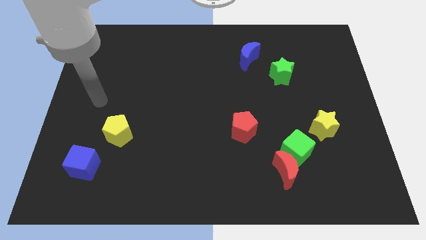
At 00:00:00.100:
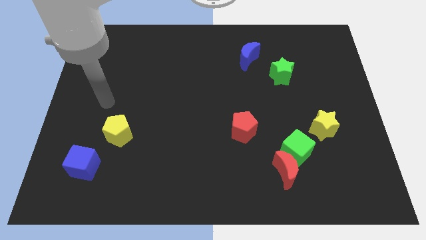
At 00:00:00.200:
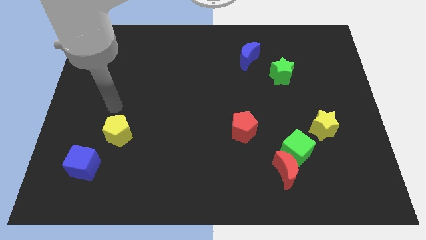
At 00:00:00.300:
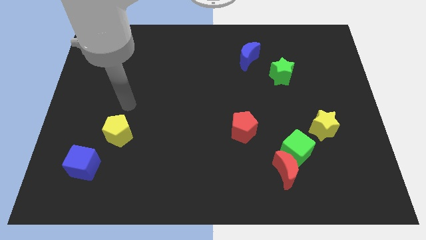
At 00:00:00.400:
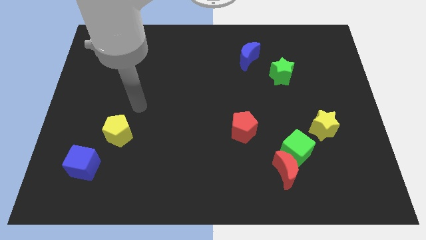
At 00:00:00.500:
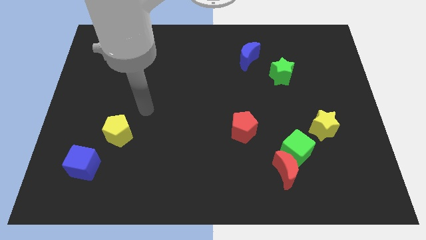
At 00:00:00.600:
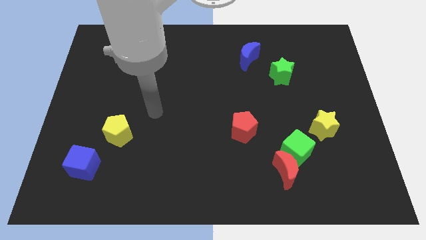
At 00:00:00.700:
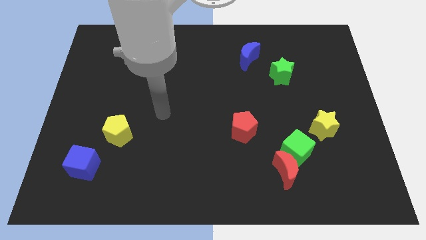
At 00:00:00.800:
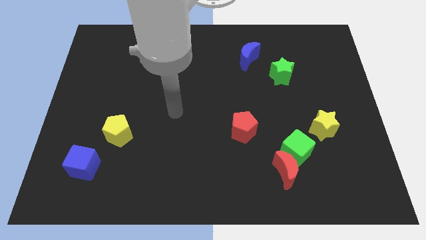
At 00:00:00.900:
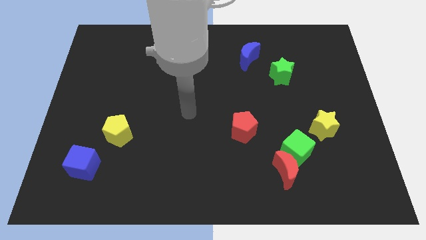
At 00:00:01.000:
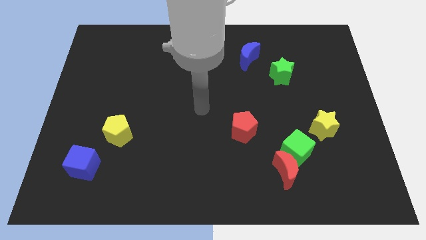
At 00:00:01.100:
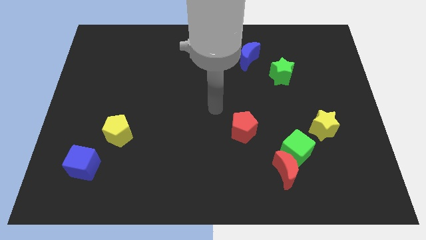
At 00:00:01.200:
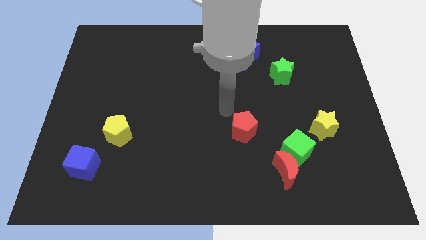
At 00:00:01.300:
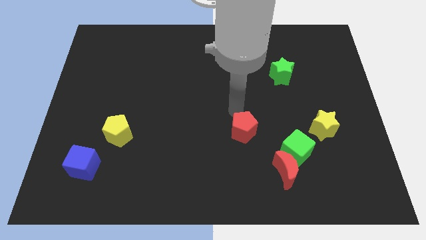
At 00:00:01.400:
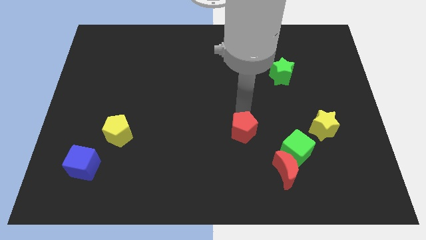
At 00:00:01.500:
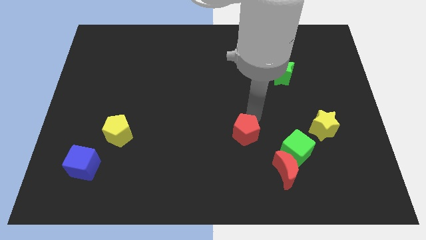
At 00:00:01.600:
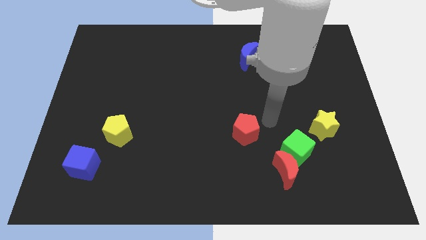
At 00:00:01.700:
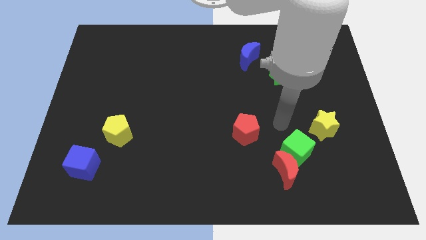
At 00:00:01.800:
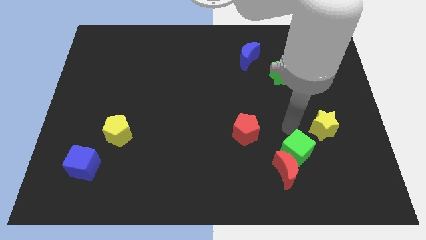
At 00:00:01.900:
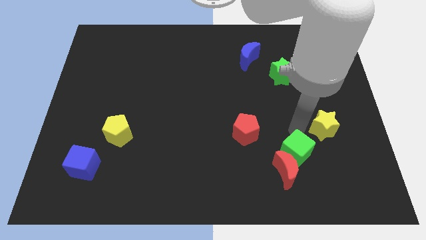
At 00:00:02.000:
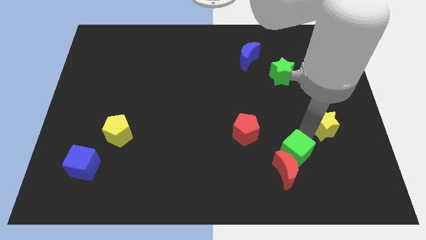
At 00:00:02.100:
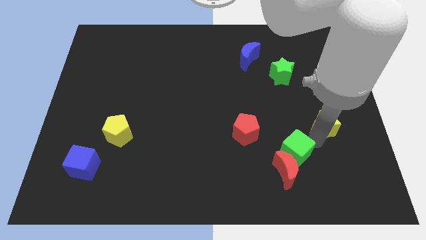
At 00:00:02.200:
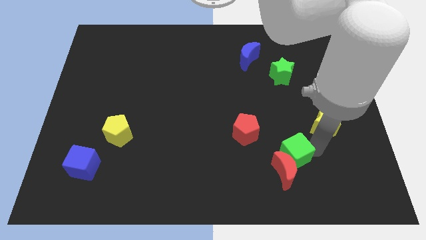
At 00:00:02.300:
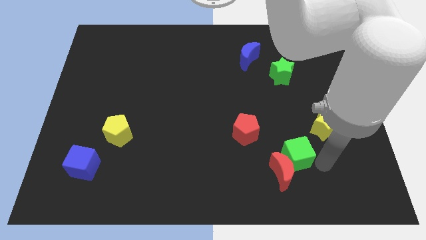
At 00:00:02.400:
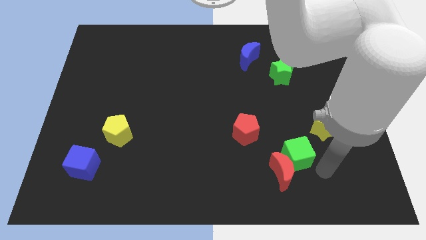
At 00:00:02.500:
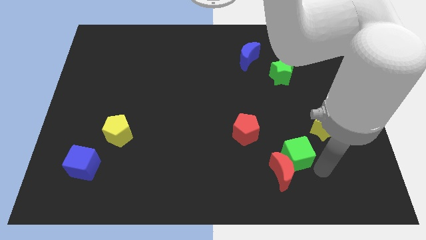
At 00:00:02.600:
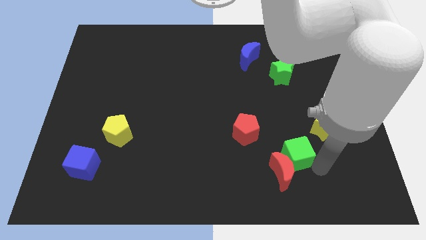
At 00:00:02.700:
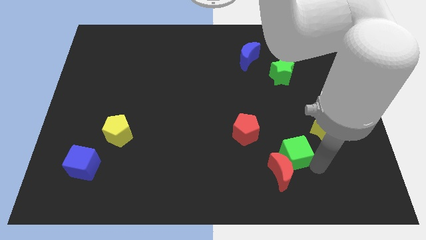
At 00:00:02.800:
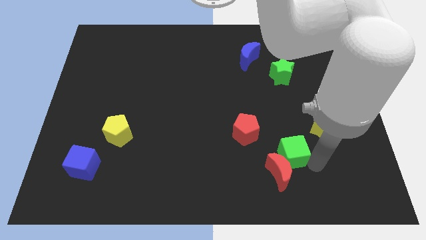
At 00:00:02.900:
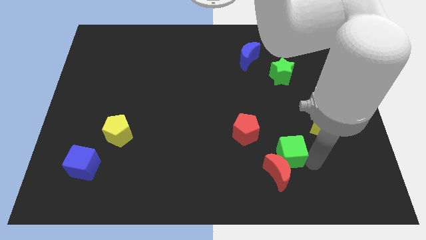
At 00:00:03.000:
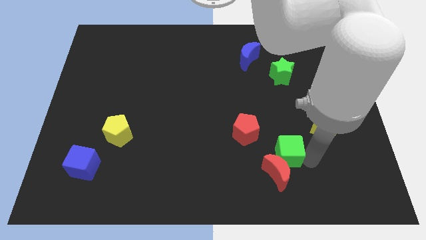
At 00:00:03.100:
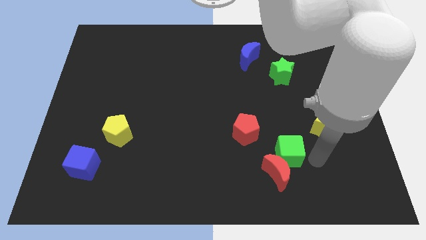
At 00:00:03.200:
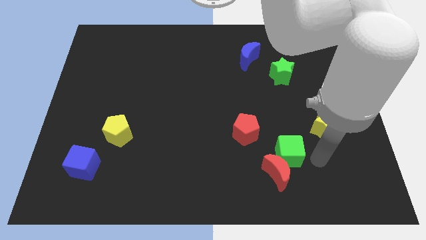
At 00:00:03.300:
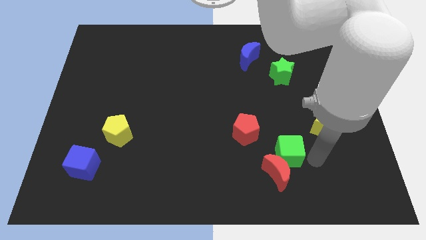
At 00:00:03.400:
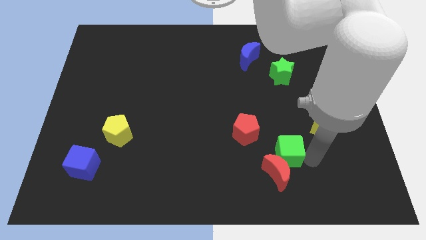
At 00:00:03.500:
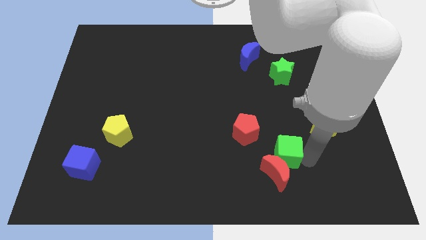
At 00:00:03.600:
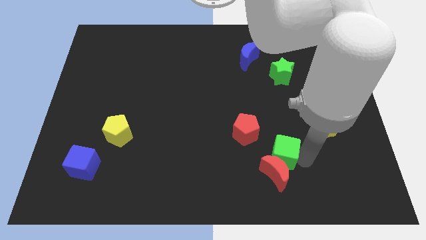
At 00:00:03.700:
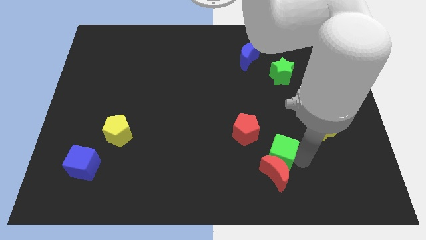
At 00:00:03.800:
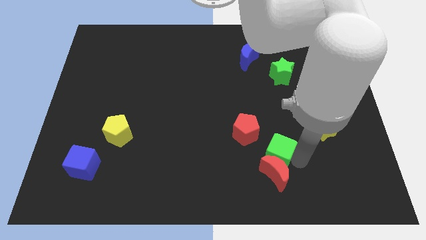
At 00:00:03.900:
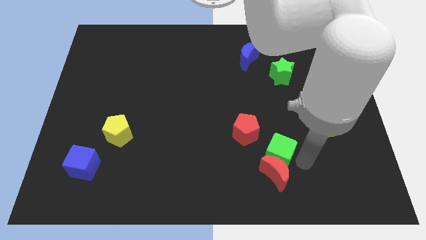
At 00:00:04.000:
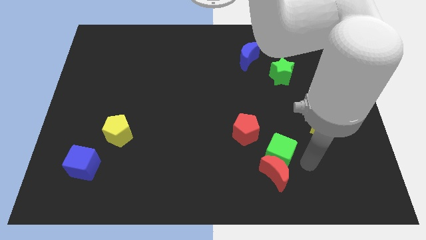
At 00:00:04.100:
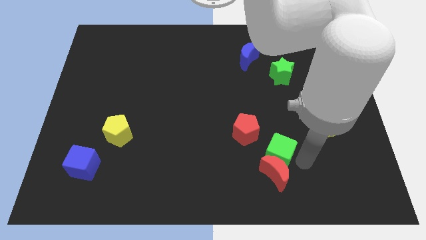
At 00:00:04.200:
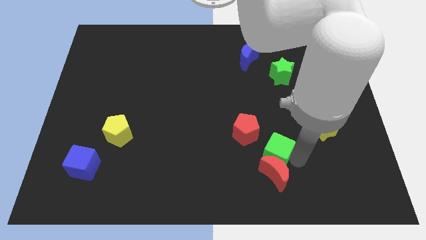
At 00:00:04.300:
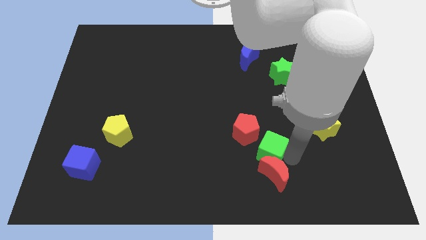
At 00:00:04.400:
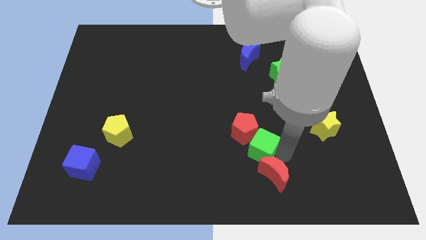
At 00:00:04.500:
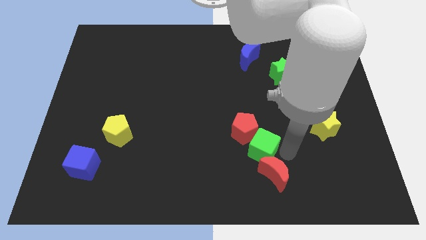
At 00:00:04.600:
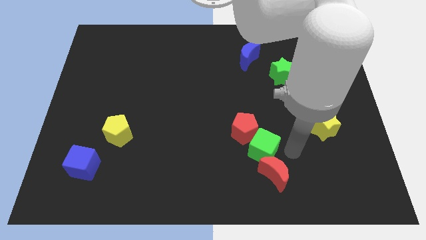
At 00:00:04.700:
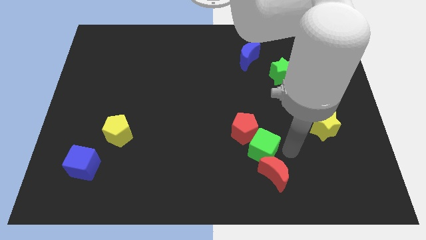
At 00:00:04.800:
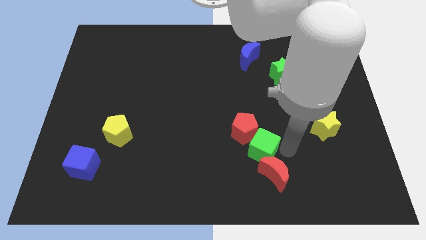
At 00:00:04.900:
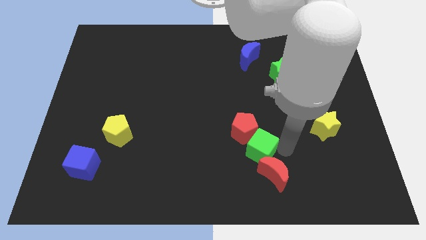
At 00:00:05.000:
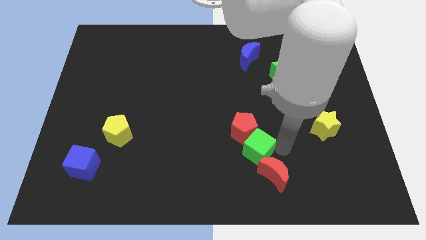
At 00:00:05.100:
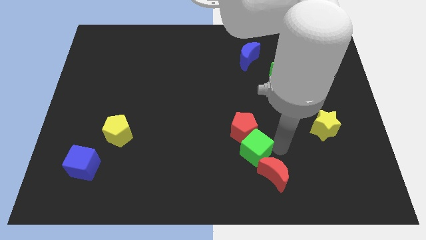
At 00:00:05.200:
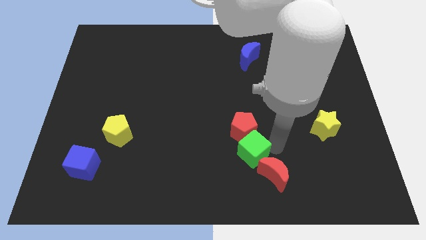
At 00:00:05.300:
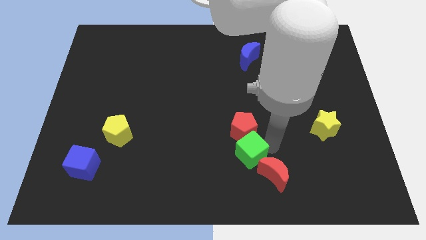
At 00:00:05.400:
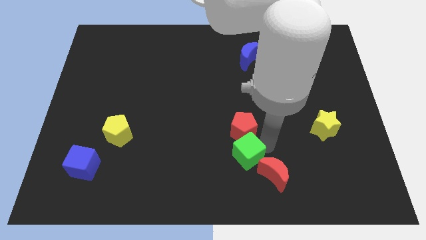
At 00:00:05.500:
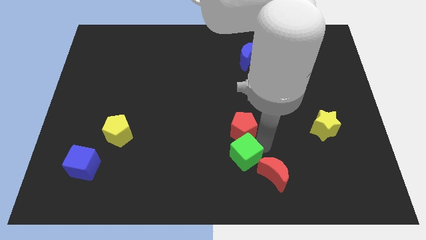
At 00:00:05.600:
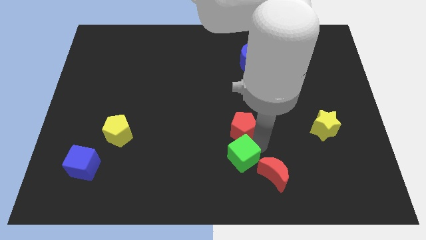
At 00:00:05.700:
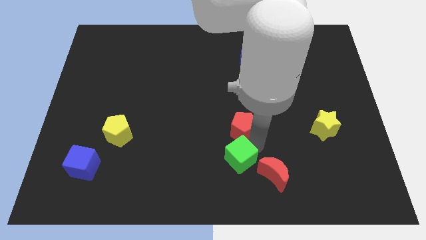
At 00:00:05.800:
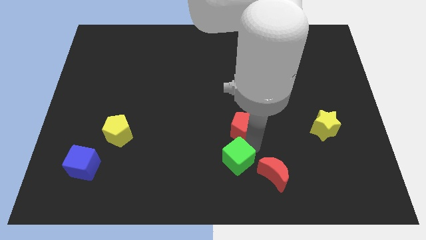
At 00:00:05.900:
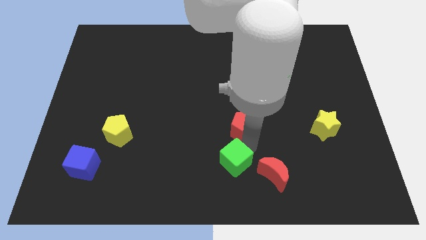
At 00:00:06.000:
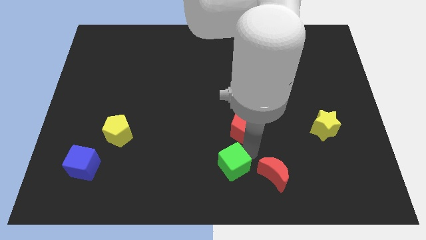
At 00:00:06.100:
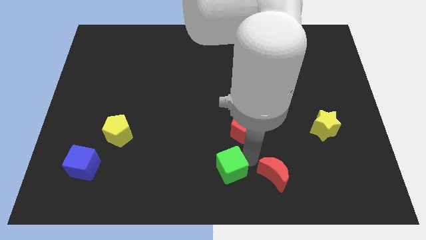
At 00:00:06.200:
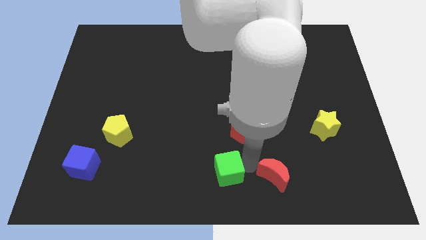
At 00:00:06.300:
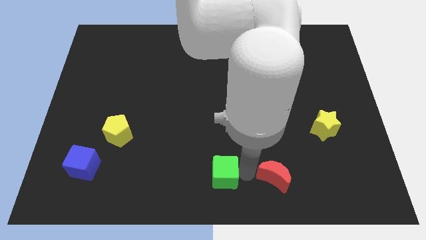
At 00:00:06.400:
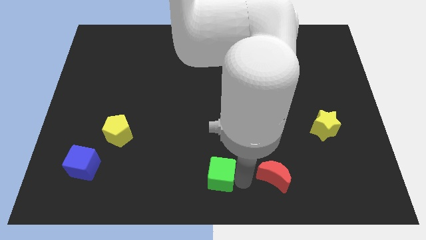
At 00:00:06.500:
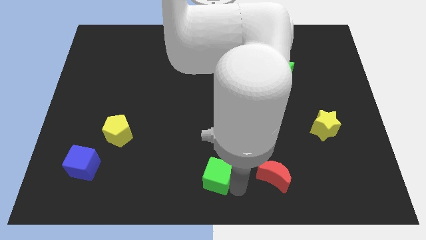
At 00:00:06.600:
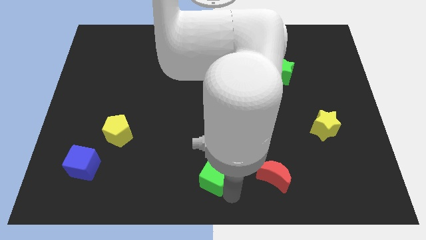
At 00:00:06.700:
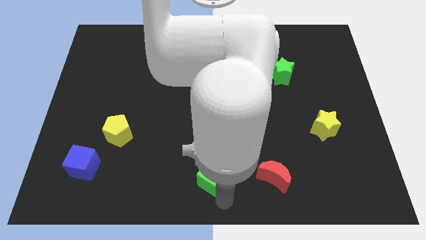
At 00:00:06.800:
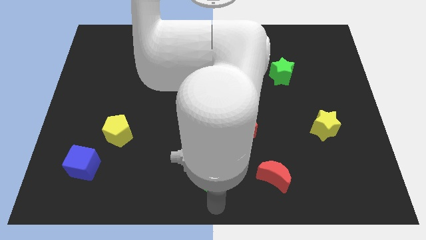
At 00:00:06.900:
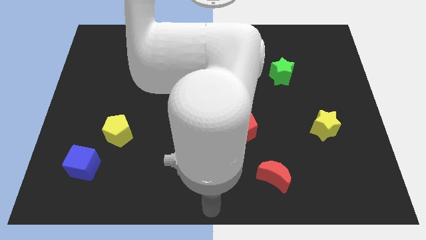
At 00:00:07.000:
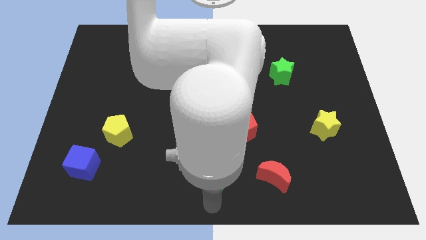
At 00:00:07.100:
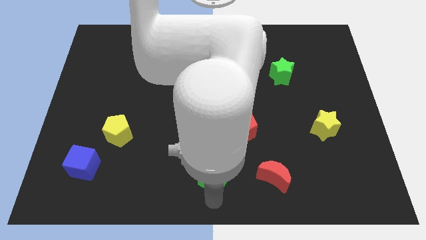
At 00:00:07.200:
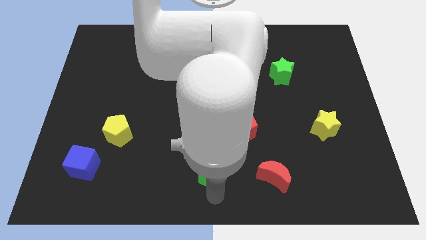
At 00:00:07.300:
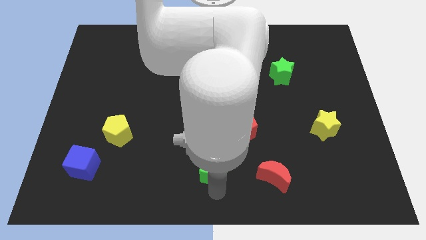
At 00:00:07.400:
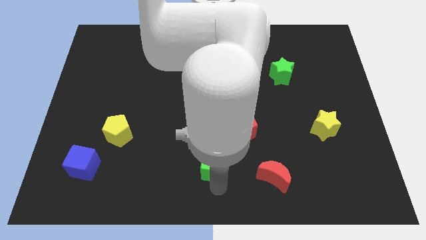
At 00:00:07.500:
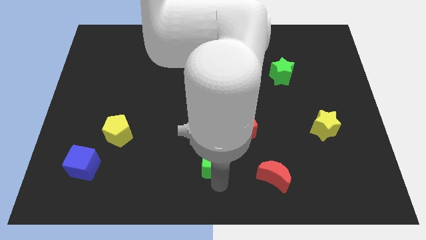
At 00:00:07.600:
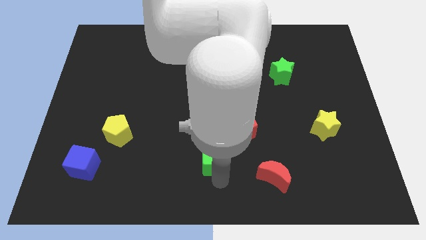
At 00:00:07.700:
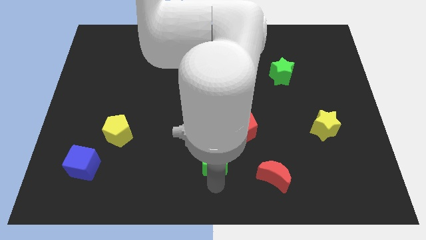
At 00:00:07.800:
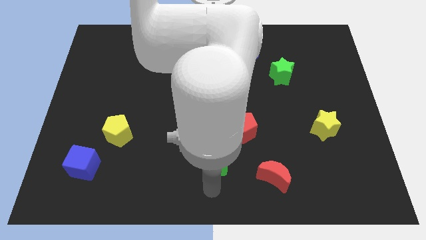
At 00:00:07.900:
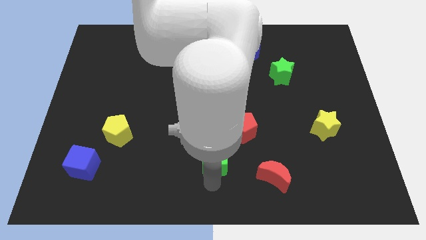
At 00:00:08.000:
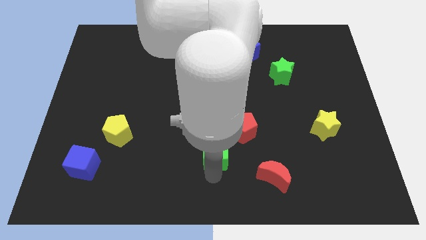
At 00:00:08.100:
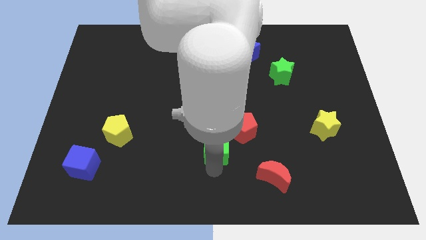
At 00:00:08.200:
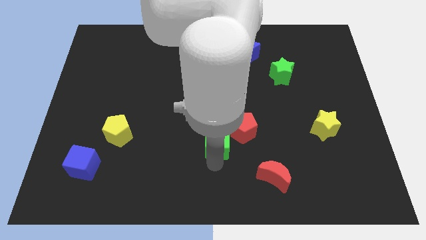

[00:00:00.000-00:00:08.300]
slide the green cube just left of the red pentagon
